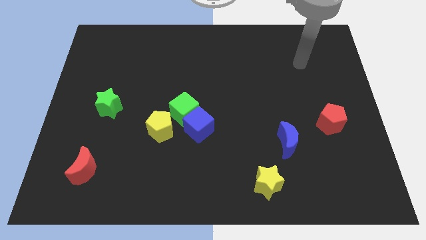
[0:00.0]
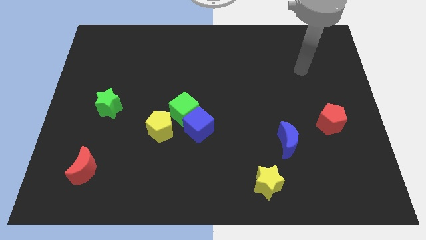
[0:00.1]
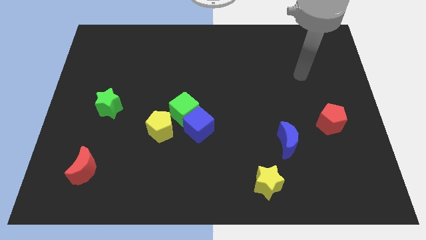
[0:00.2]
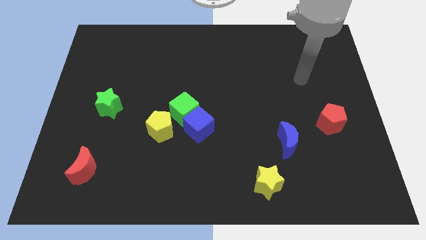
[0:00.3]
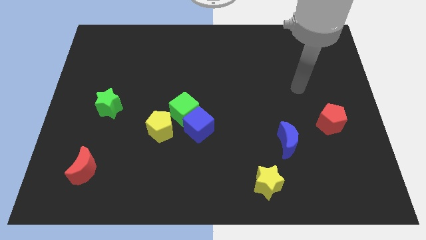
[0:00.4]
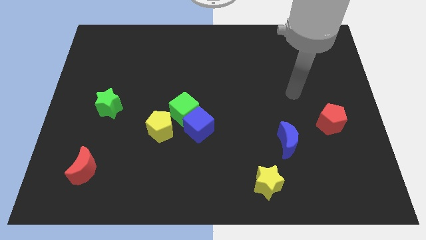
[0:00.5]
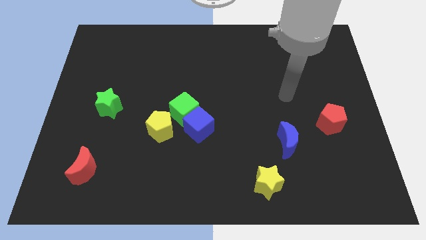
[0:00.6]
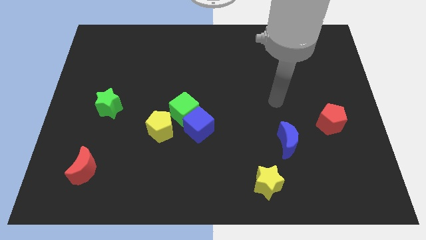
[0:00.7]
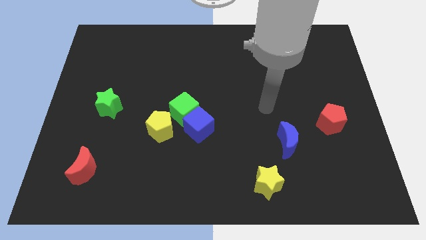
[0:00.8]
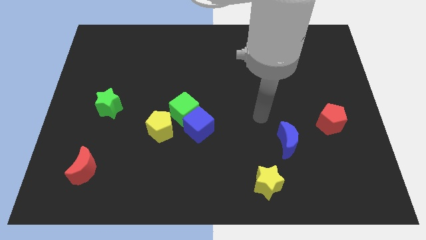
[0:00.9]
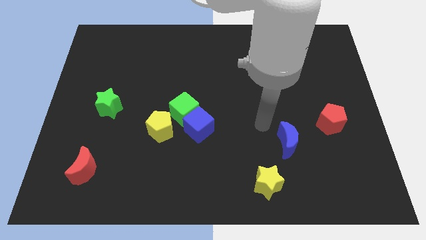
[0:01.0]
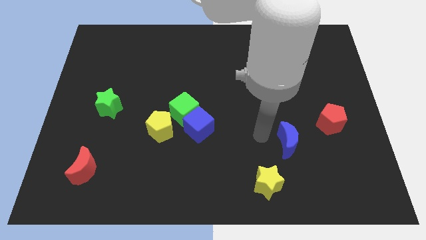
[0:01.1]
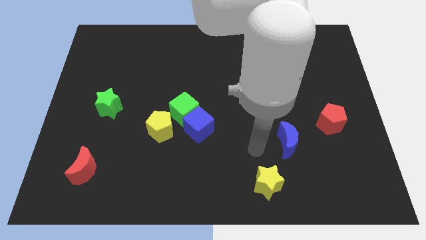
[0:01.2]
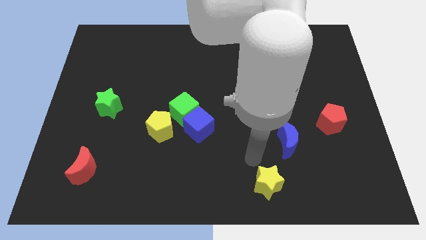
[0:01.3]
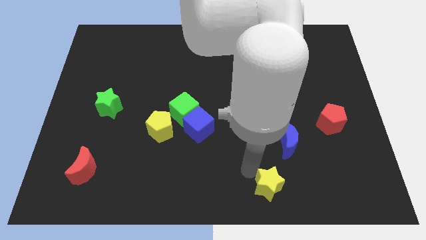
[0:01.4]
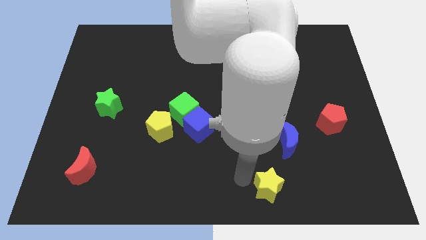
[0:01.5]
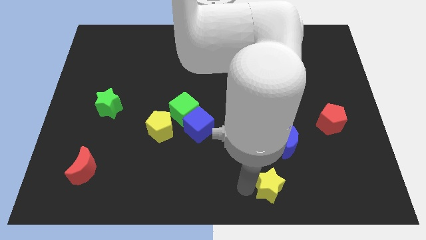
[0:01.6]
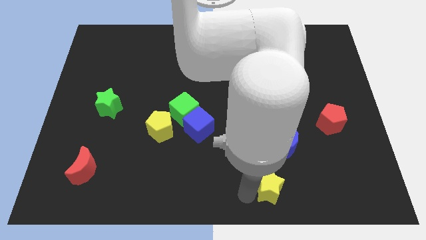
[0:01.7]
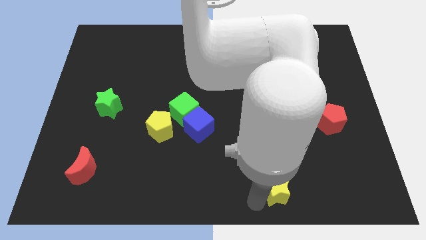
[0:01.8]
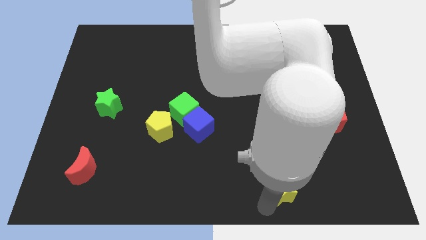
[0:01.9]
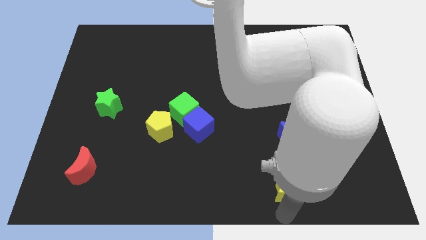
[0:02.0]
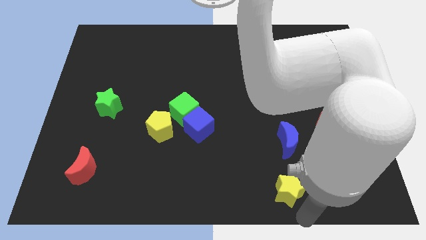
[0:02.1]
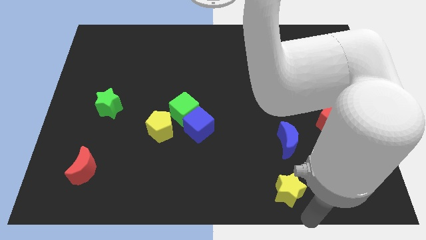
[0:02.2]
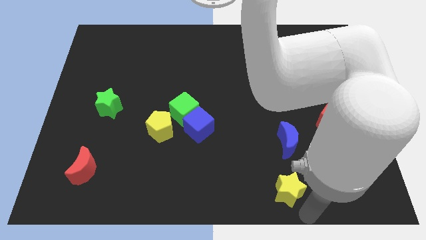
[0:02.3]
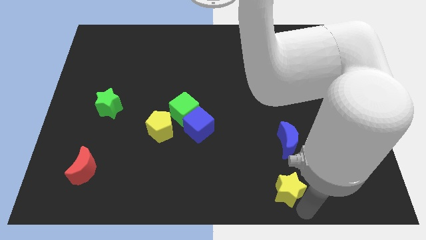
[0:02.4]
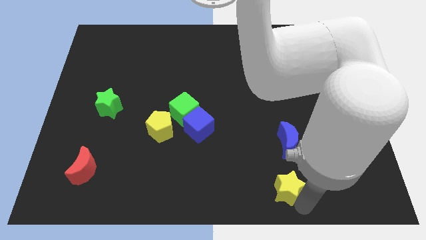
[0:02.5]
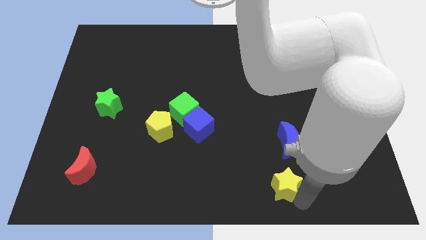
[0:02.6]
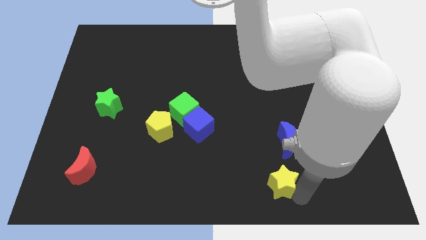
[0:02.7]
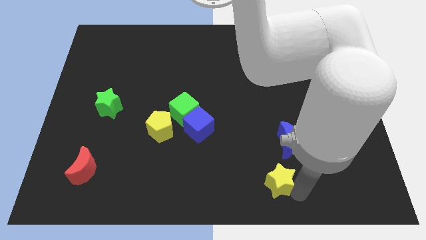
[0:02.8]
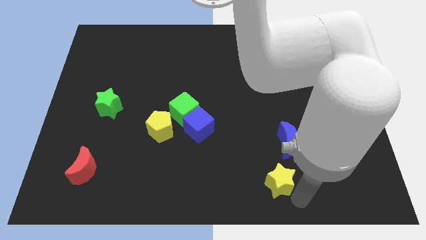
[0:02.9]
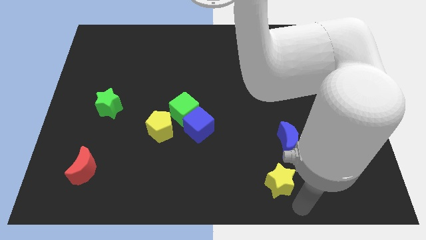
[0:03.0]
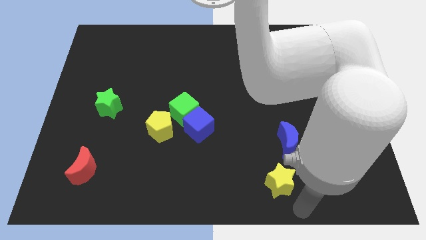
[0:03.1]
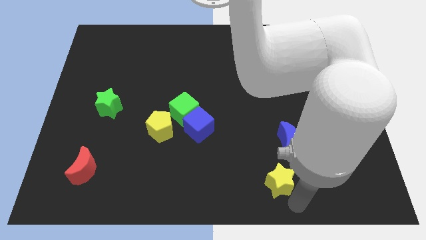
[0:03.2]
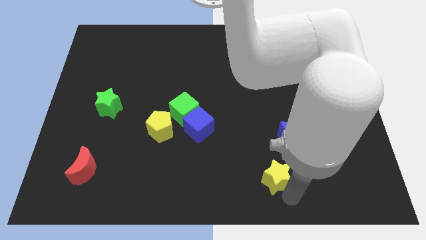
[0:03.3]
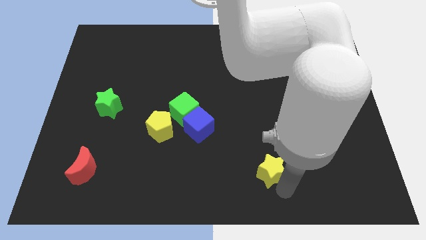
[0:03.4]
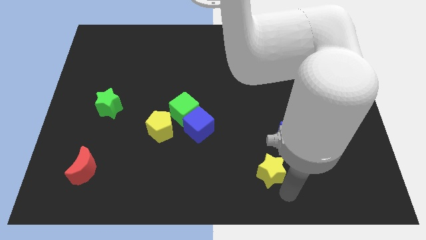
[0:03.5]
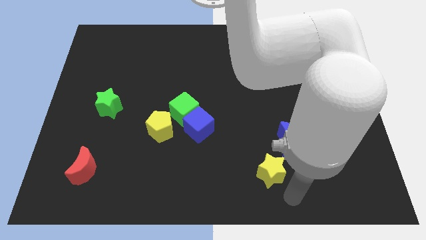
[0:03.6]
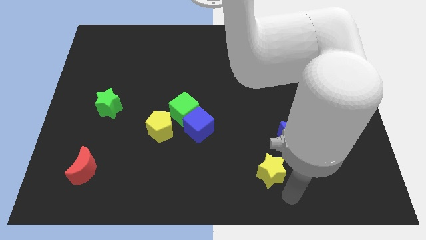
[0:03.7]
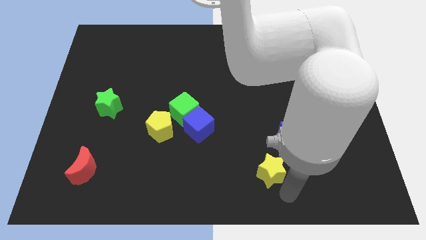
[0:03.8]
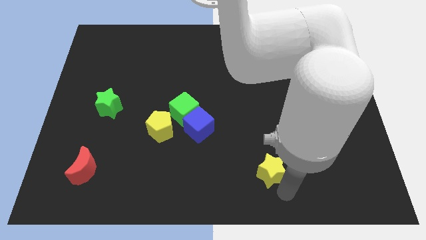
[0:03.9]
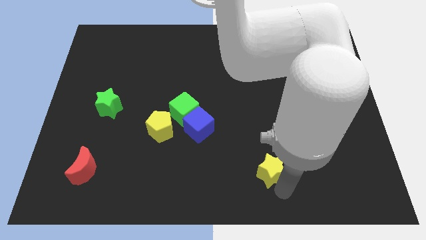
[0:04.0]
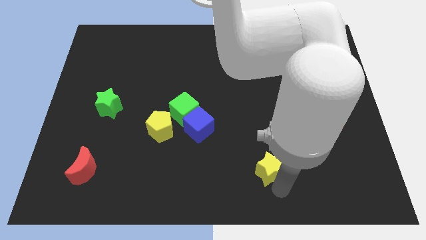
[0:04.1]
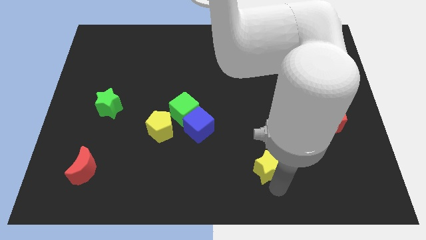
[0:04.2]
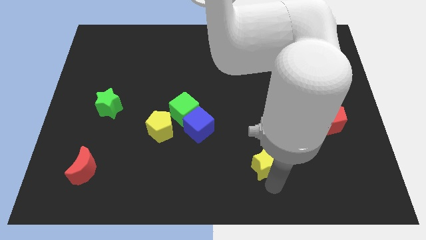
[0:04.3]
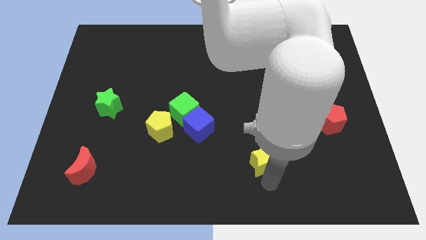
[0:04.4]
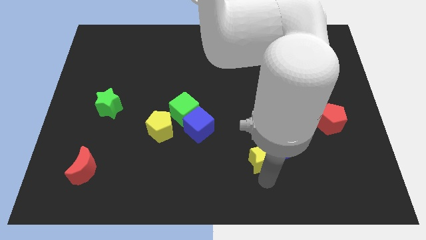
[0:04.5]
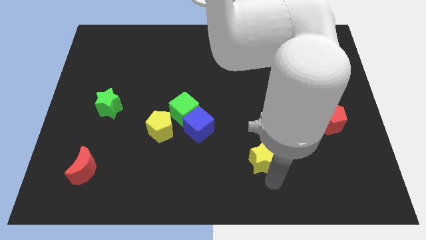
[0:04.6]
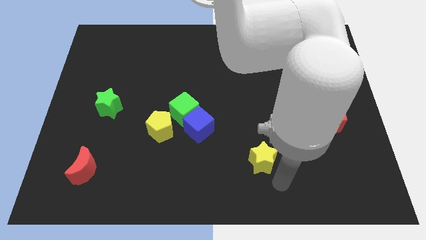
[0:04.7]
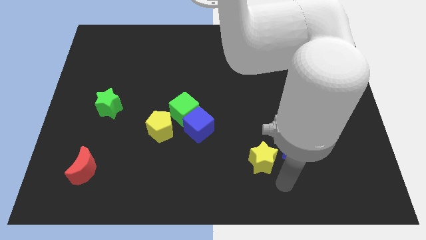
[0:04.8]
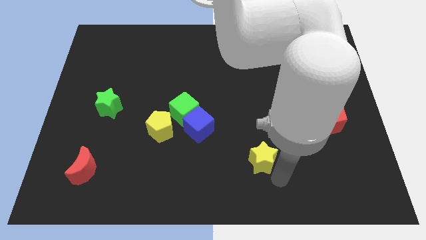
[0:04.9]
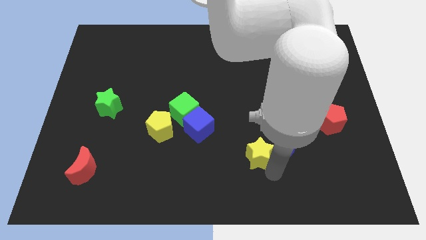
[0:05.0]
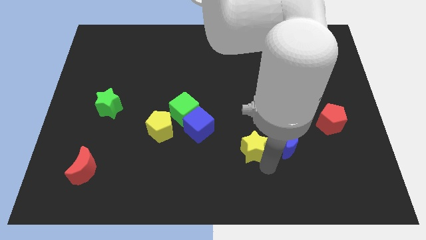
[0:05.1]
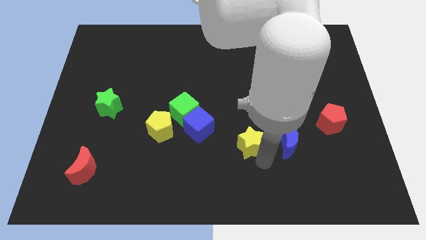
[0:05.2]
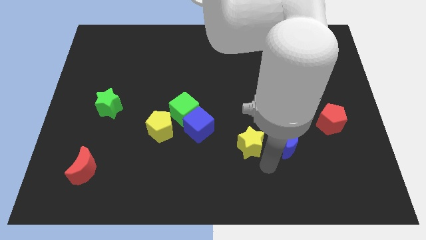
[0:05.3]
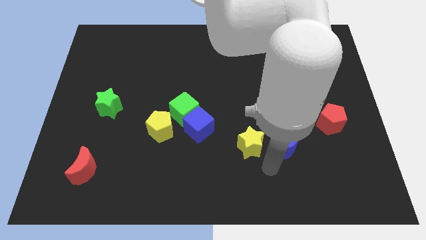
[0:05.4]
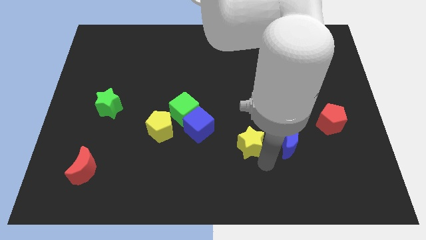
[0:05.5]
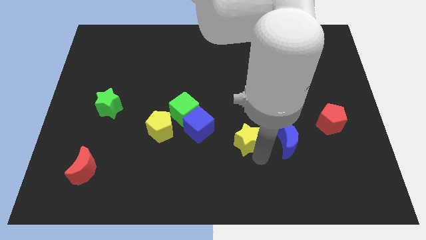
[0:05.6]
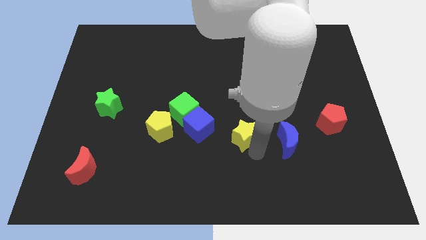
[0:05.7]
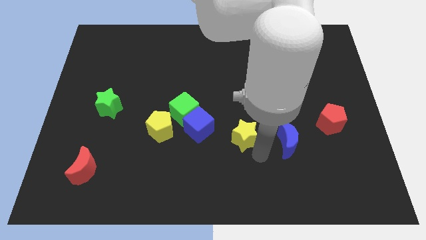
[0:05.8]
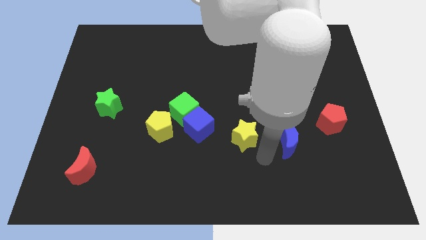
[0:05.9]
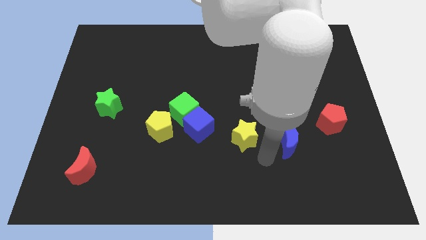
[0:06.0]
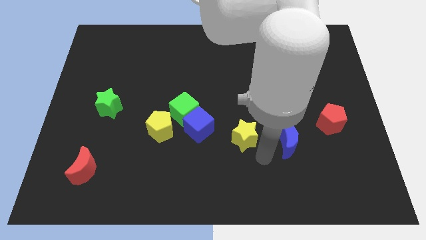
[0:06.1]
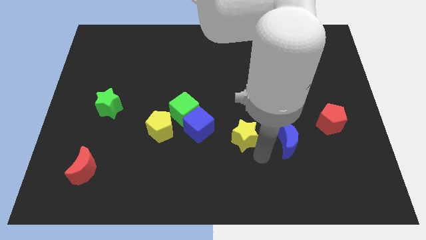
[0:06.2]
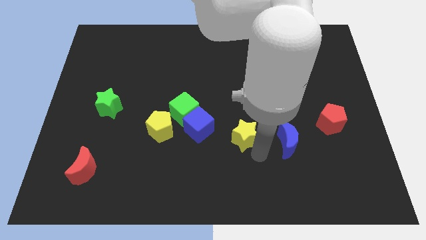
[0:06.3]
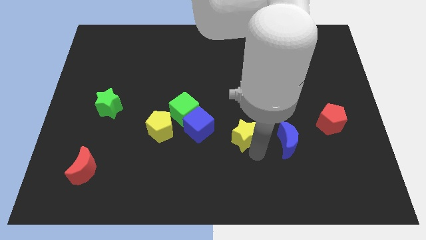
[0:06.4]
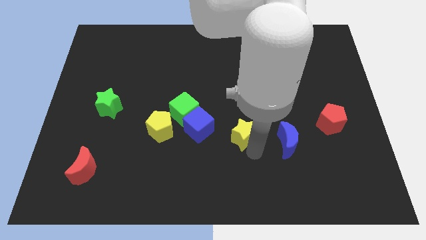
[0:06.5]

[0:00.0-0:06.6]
put the yellow star to the middle of the board

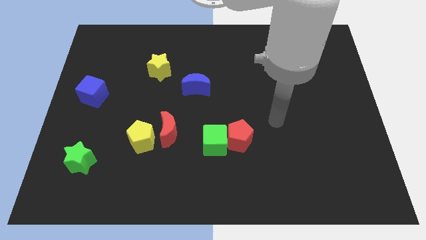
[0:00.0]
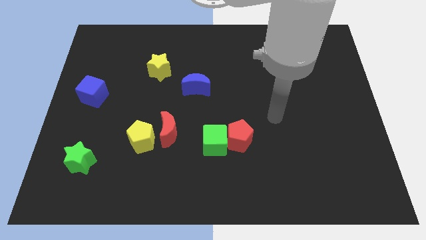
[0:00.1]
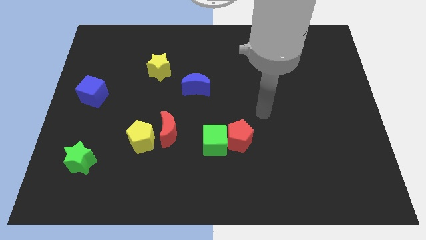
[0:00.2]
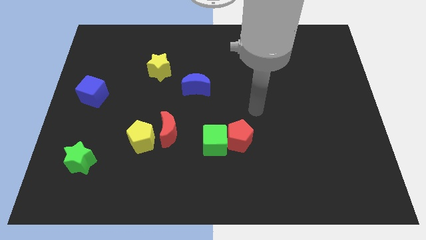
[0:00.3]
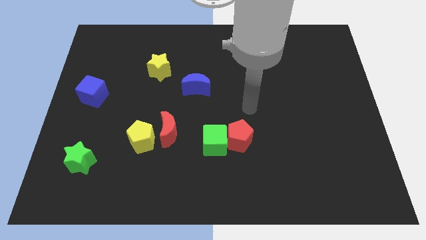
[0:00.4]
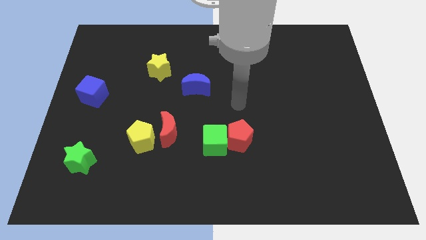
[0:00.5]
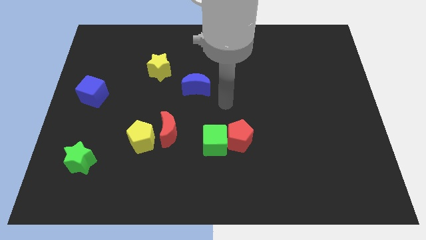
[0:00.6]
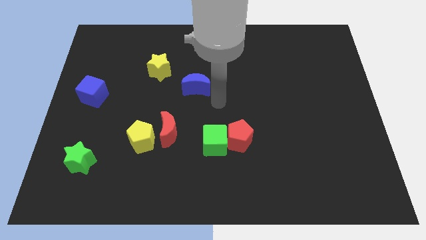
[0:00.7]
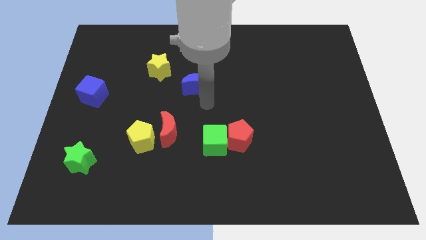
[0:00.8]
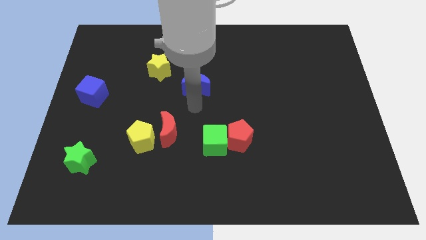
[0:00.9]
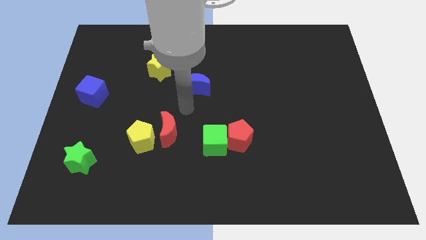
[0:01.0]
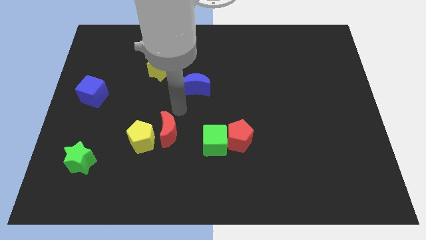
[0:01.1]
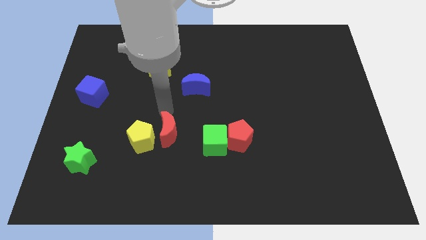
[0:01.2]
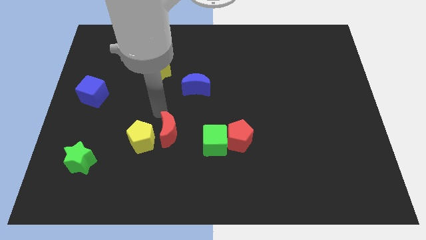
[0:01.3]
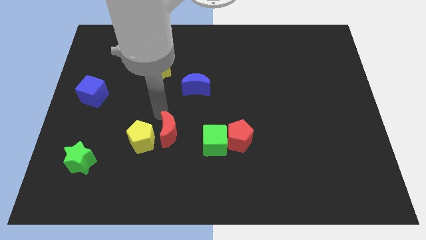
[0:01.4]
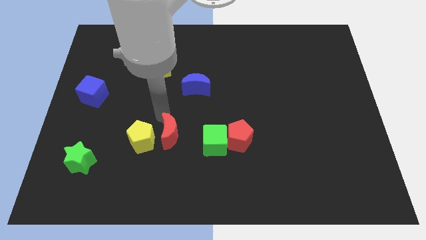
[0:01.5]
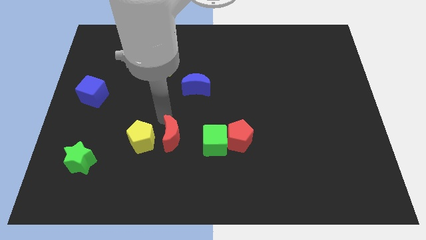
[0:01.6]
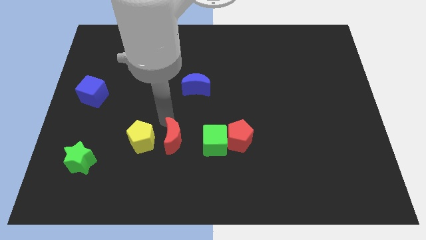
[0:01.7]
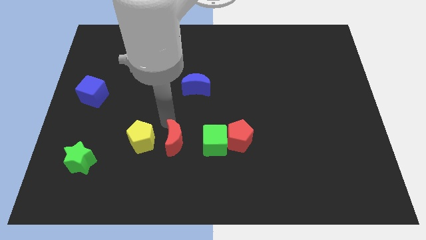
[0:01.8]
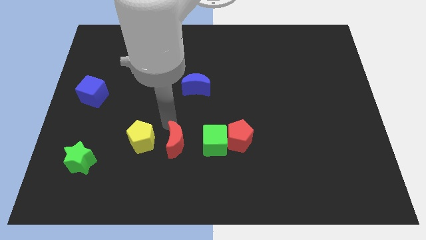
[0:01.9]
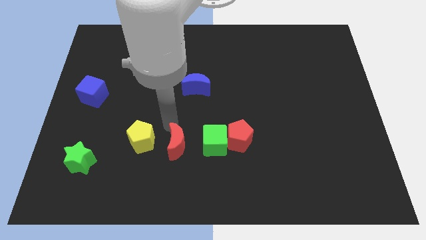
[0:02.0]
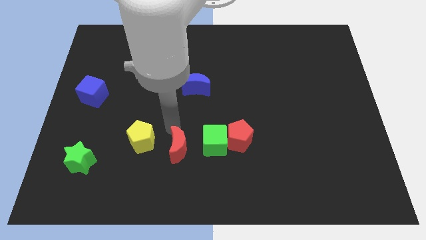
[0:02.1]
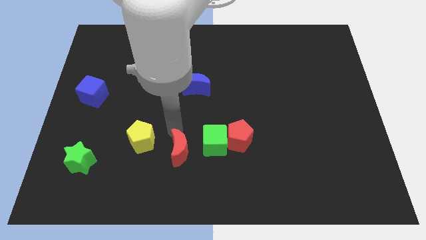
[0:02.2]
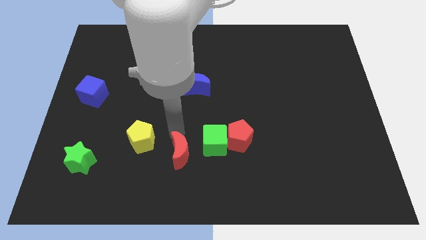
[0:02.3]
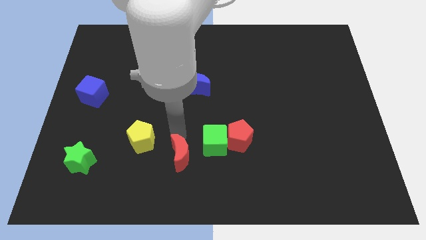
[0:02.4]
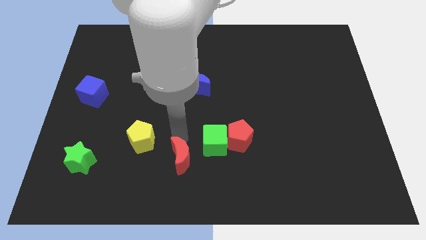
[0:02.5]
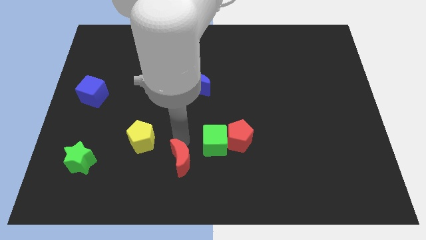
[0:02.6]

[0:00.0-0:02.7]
move the red moon to the bottom
